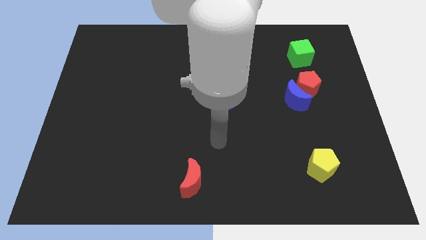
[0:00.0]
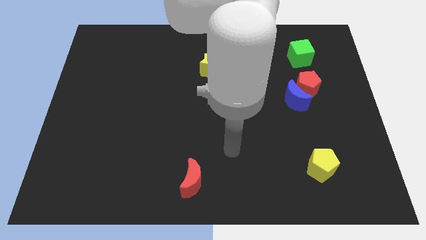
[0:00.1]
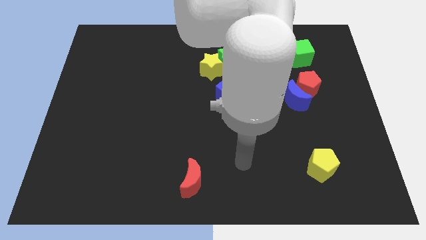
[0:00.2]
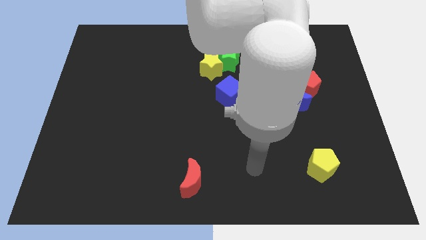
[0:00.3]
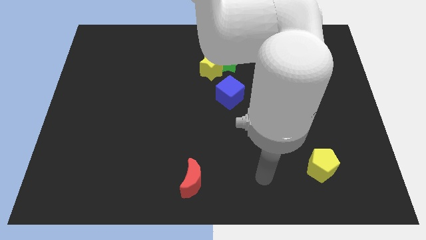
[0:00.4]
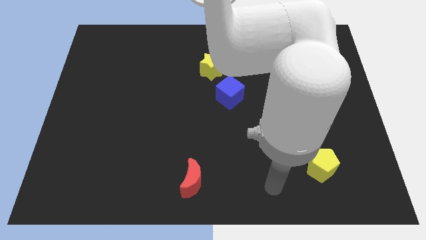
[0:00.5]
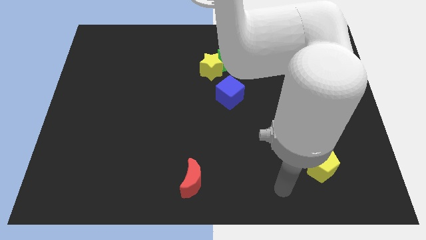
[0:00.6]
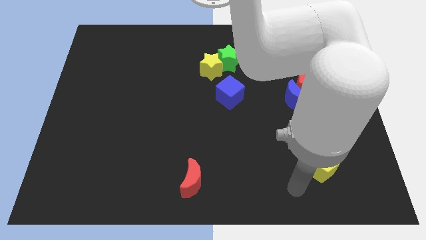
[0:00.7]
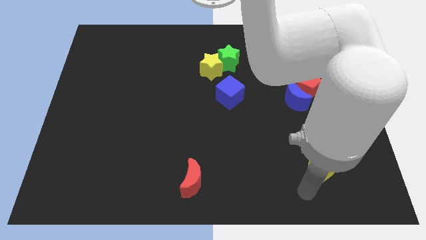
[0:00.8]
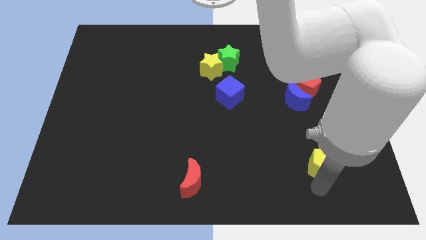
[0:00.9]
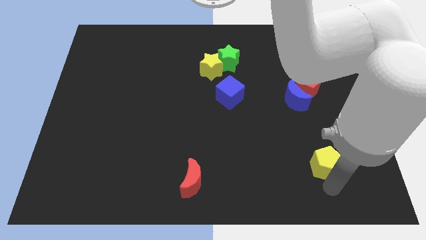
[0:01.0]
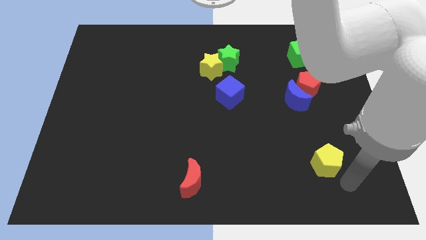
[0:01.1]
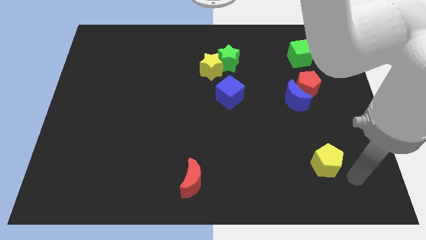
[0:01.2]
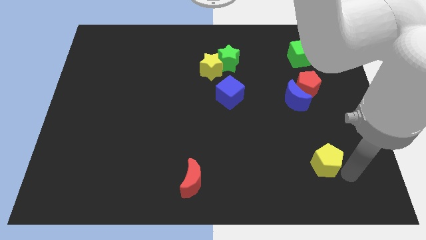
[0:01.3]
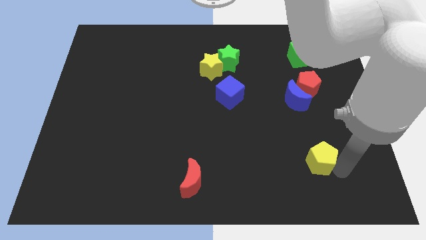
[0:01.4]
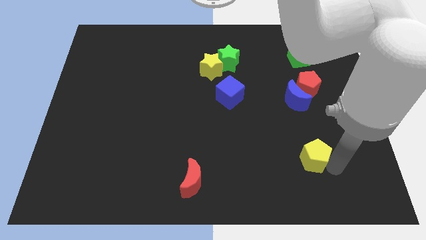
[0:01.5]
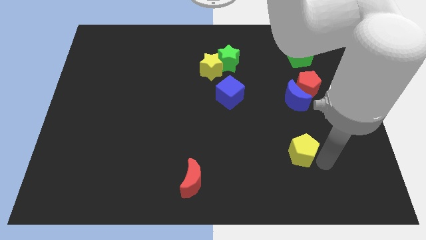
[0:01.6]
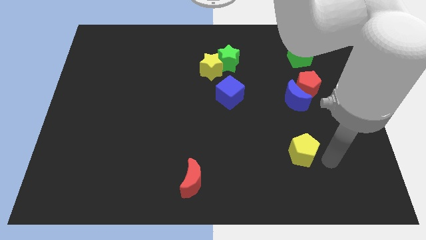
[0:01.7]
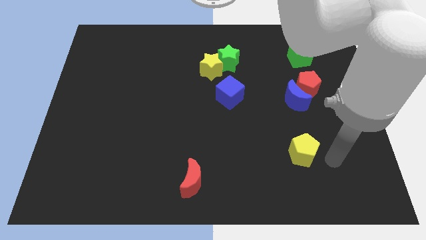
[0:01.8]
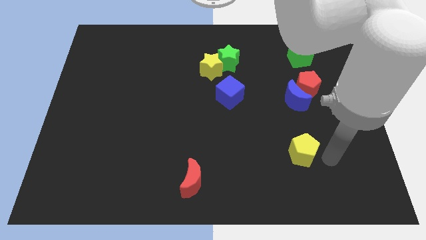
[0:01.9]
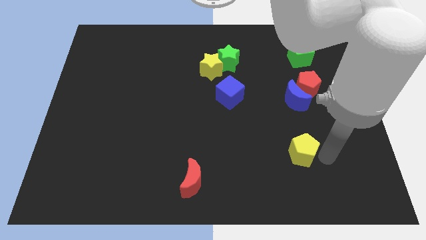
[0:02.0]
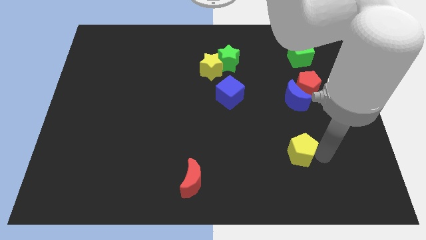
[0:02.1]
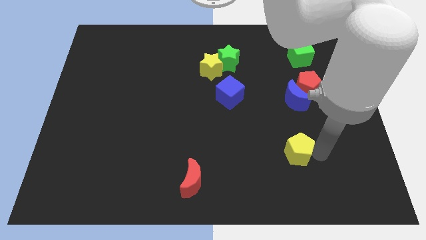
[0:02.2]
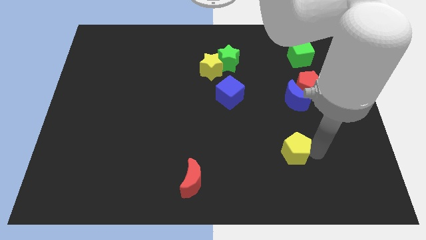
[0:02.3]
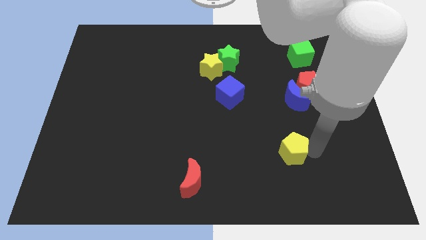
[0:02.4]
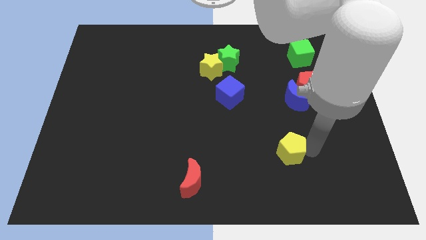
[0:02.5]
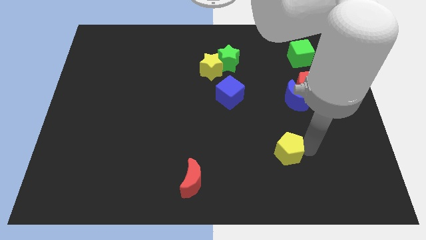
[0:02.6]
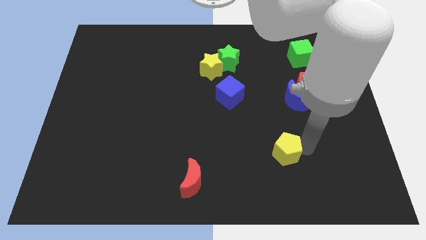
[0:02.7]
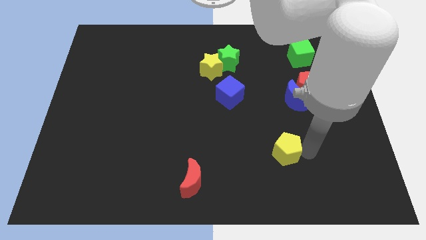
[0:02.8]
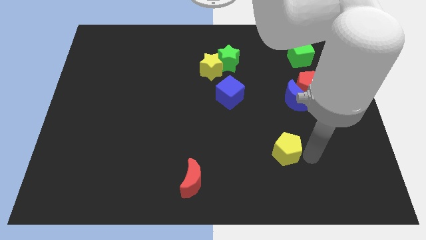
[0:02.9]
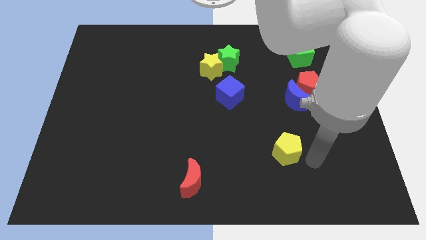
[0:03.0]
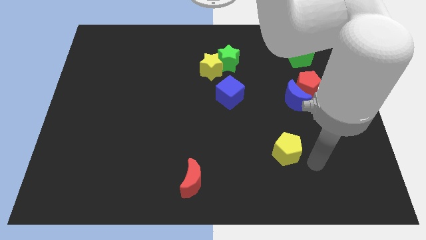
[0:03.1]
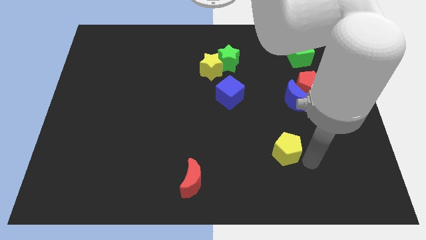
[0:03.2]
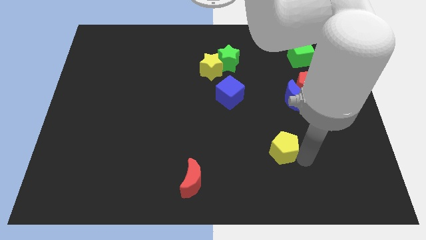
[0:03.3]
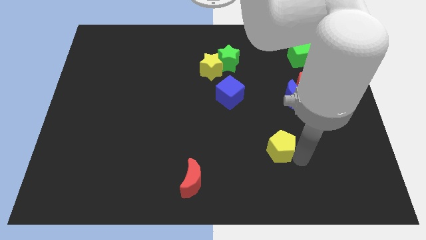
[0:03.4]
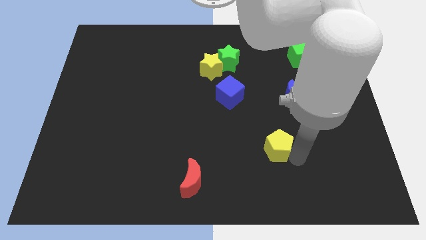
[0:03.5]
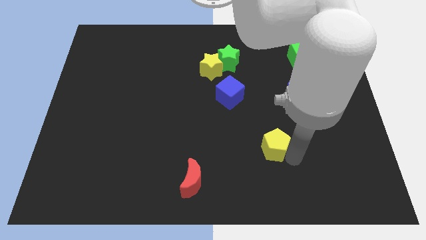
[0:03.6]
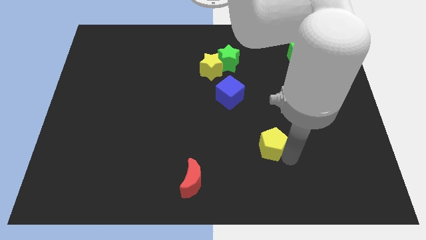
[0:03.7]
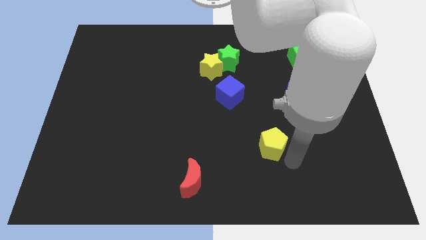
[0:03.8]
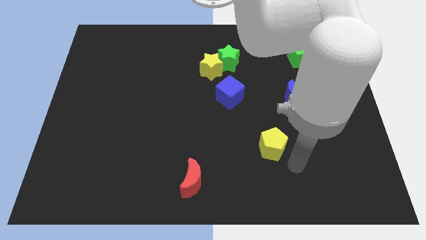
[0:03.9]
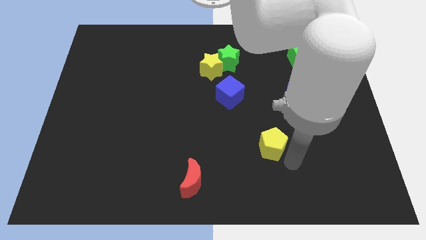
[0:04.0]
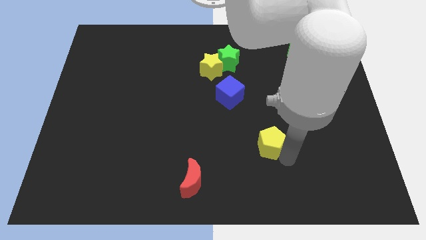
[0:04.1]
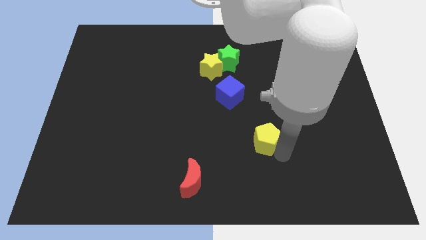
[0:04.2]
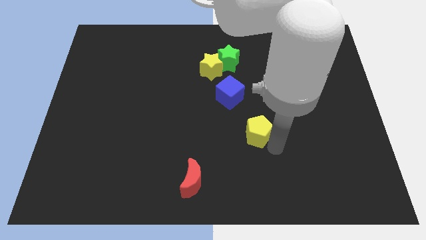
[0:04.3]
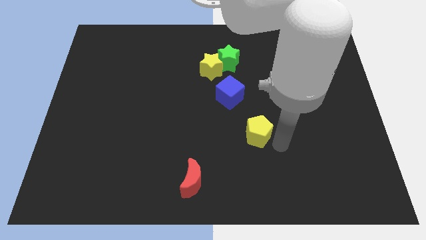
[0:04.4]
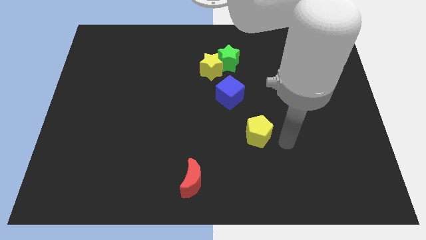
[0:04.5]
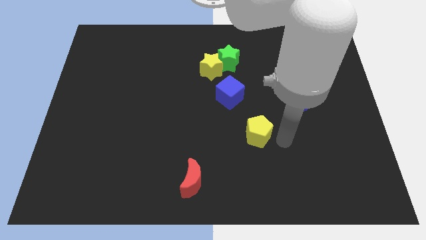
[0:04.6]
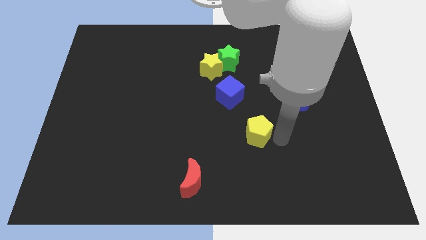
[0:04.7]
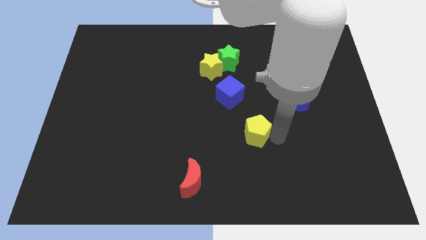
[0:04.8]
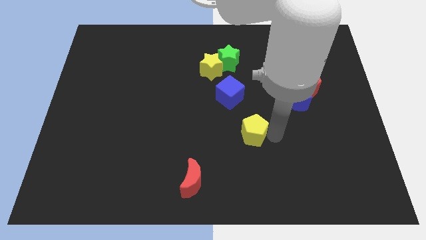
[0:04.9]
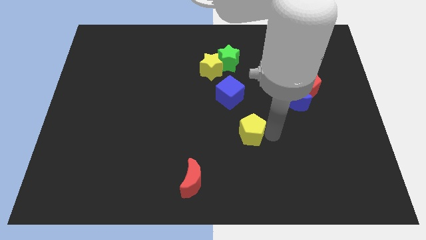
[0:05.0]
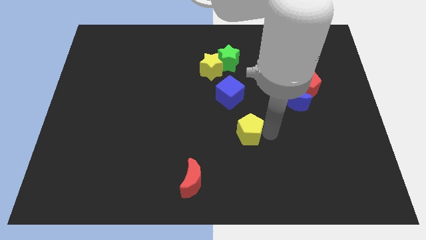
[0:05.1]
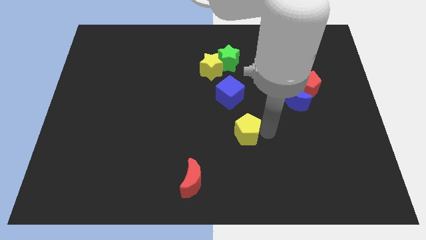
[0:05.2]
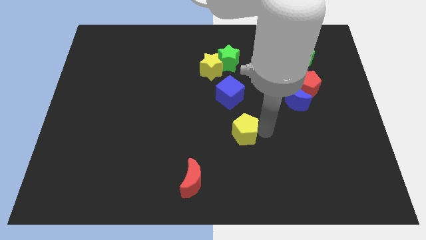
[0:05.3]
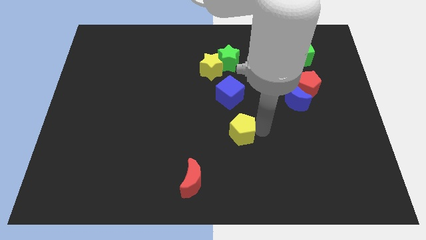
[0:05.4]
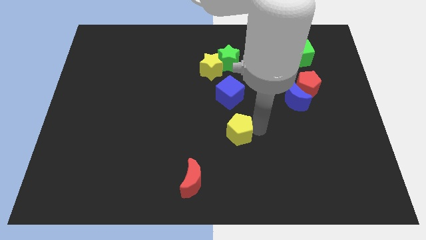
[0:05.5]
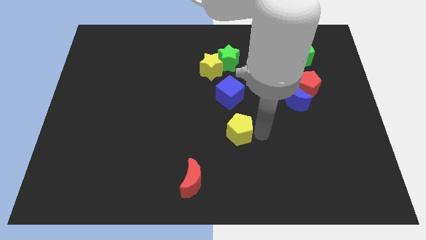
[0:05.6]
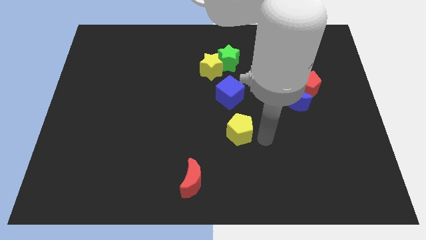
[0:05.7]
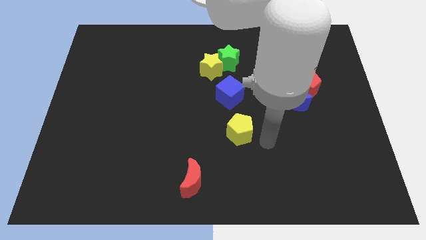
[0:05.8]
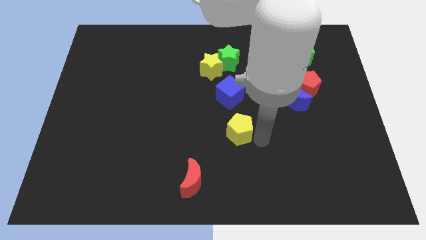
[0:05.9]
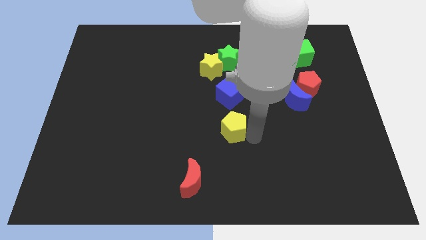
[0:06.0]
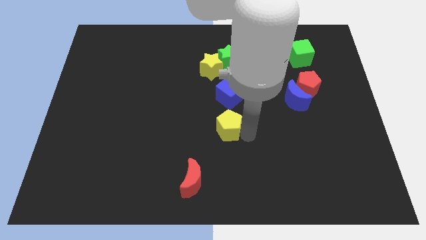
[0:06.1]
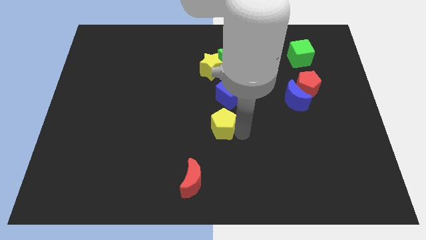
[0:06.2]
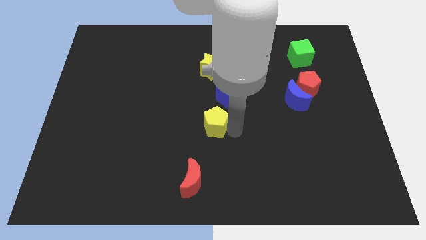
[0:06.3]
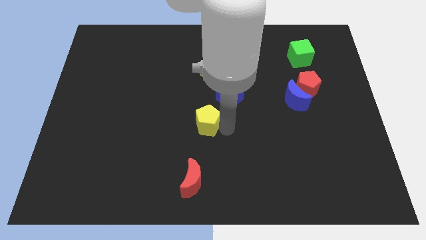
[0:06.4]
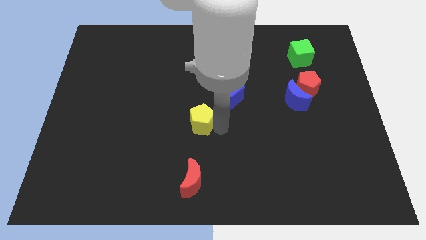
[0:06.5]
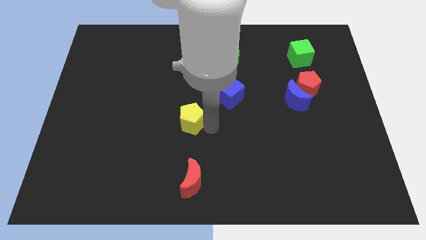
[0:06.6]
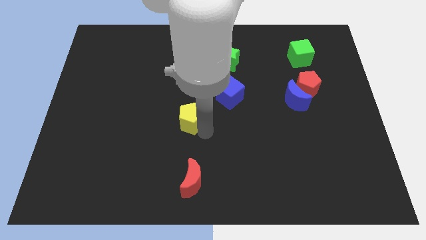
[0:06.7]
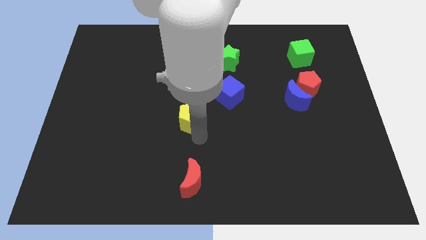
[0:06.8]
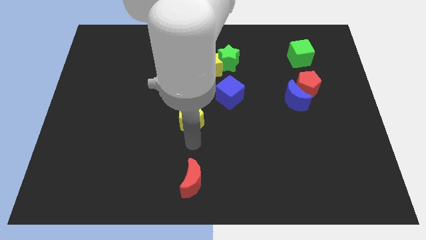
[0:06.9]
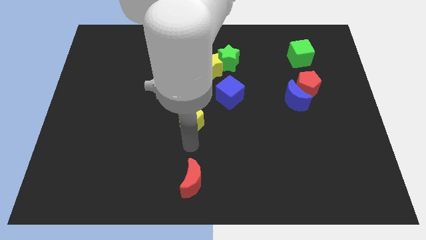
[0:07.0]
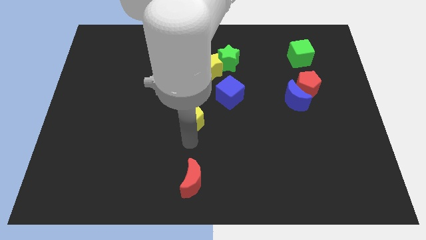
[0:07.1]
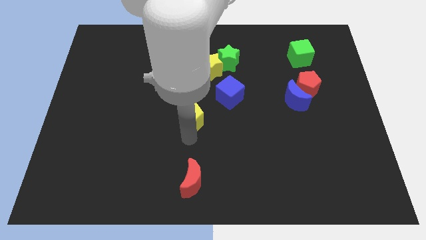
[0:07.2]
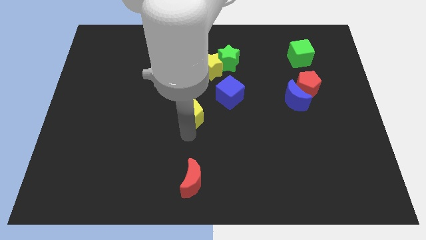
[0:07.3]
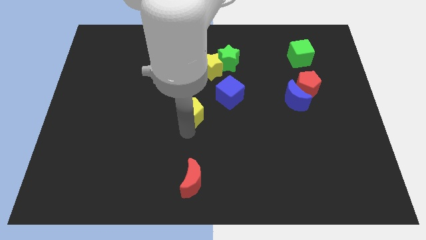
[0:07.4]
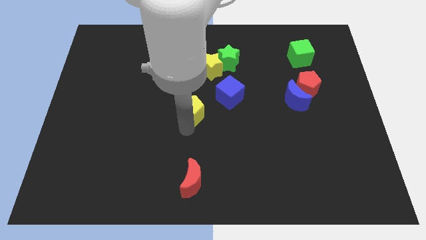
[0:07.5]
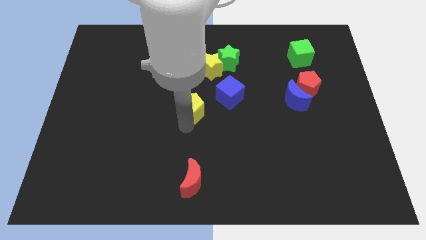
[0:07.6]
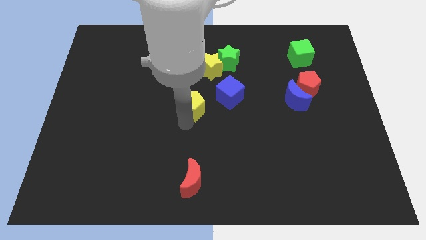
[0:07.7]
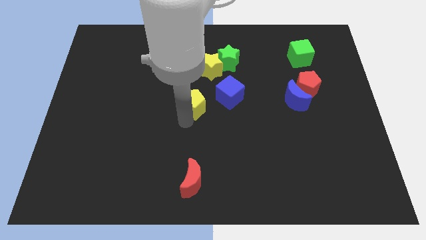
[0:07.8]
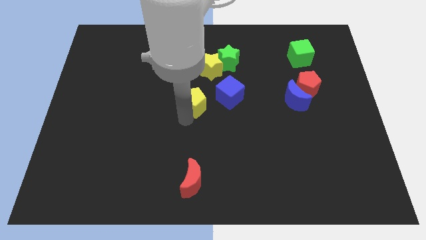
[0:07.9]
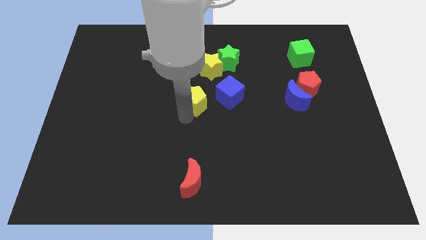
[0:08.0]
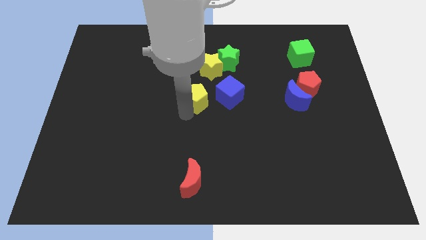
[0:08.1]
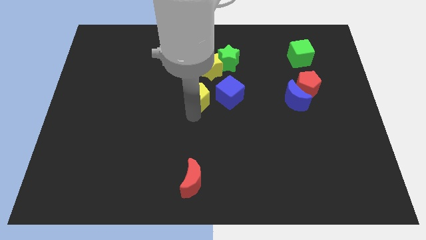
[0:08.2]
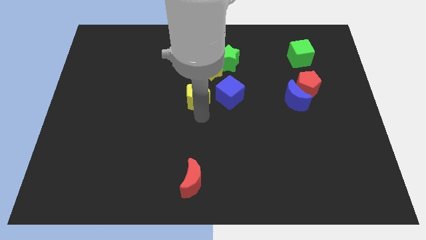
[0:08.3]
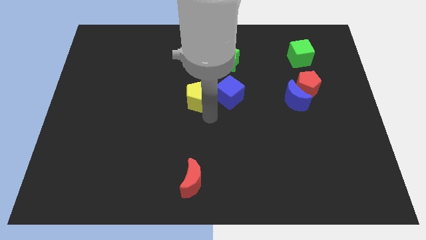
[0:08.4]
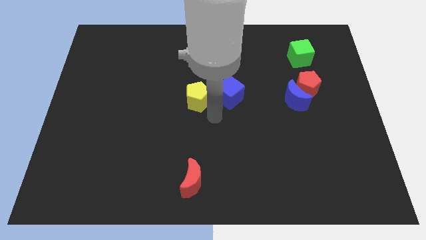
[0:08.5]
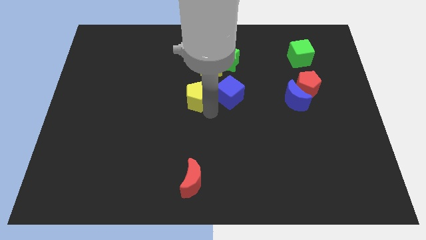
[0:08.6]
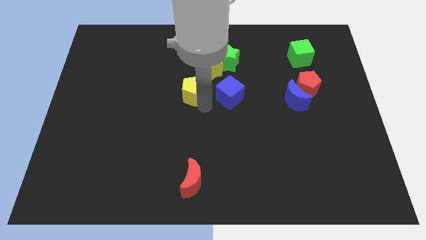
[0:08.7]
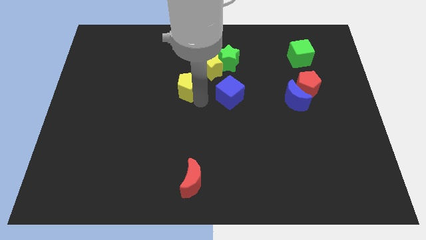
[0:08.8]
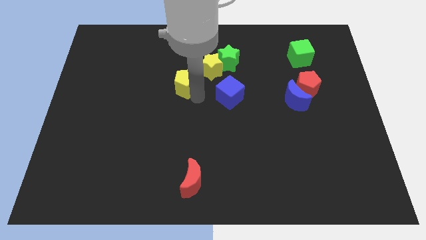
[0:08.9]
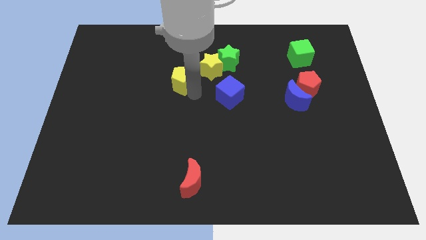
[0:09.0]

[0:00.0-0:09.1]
slide the yellow pentagon to the left side of the yellow star
